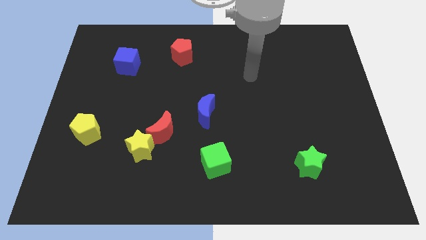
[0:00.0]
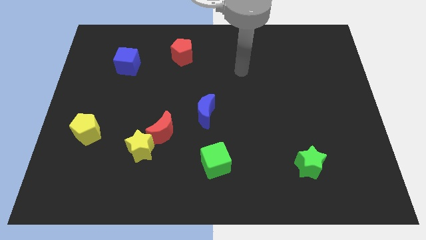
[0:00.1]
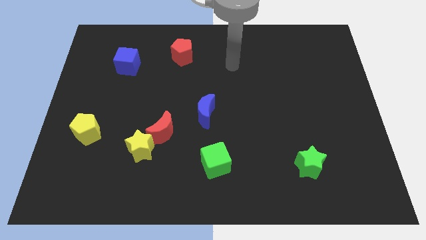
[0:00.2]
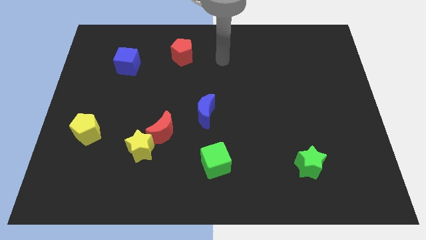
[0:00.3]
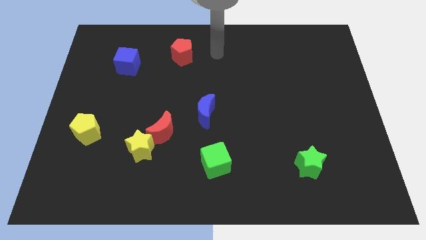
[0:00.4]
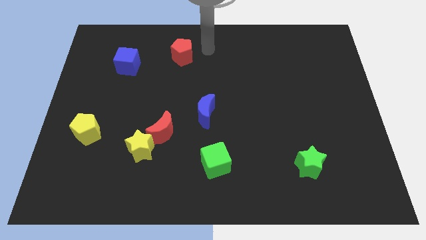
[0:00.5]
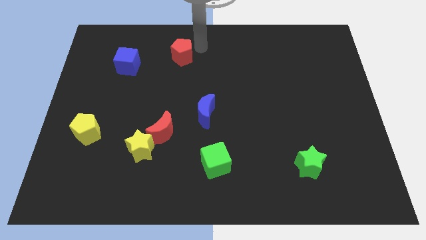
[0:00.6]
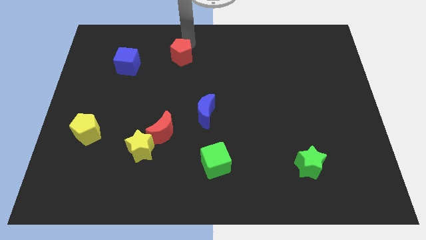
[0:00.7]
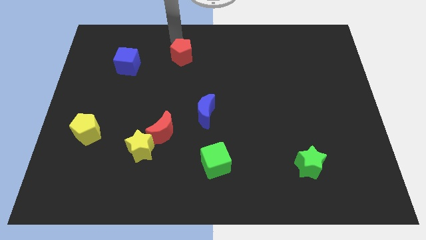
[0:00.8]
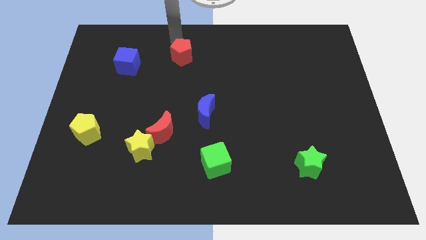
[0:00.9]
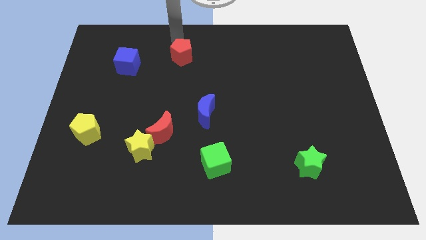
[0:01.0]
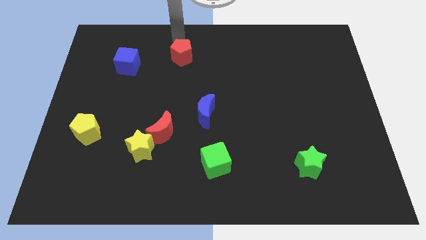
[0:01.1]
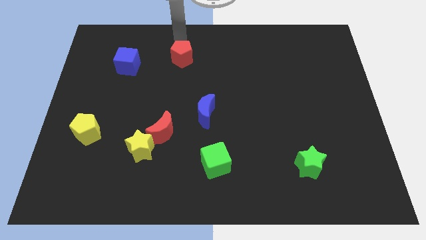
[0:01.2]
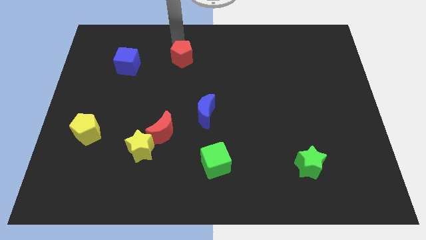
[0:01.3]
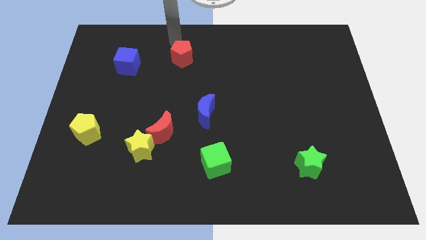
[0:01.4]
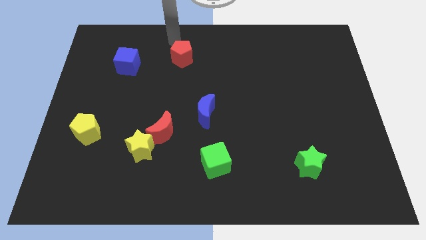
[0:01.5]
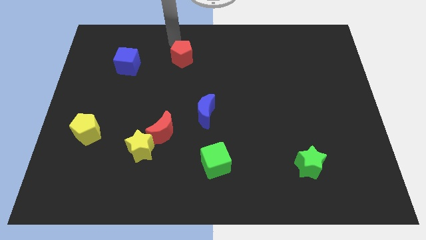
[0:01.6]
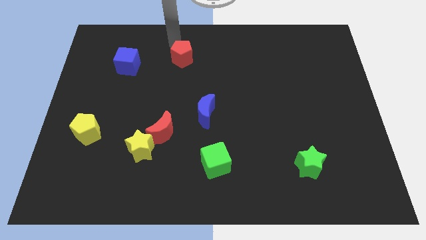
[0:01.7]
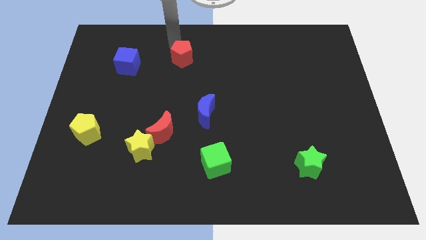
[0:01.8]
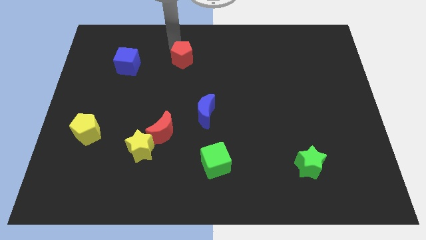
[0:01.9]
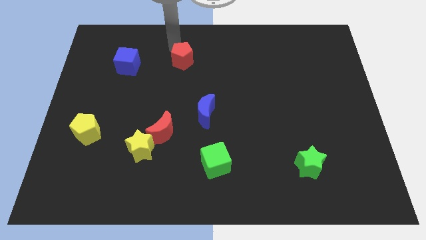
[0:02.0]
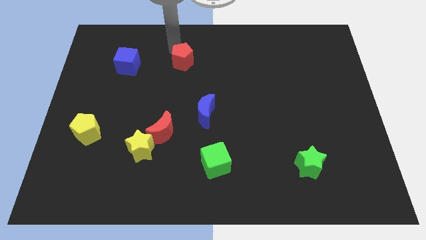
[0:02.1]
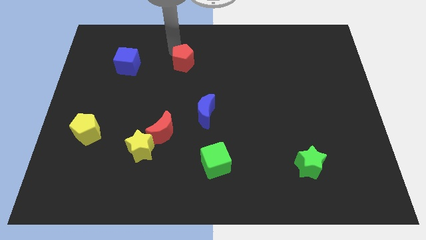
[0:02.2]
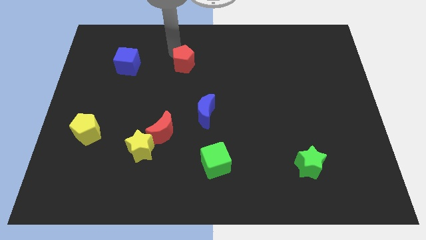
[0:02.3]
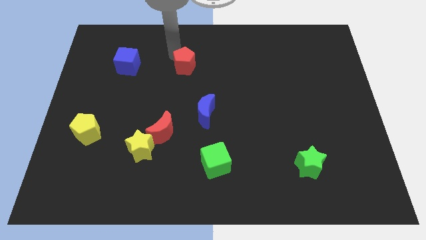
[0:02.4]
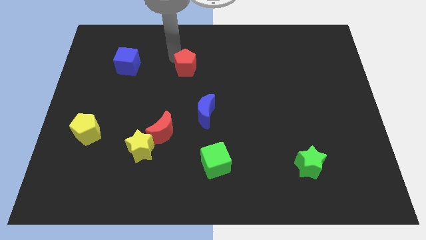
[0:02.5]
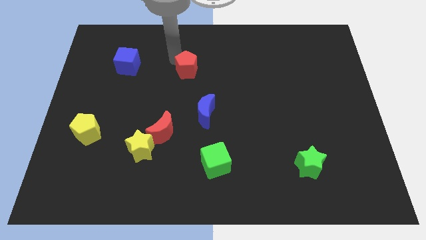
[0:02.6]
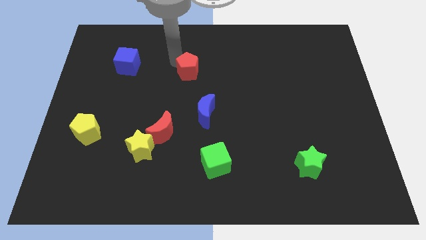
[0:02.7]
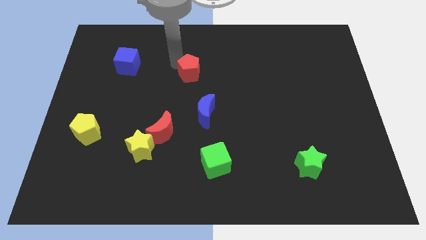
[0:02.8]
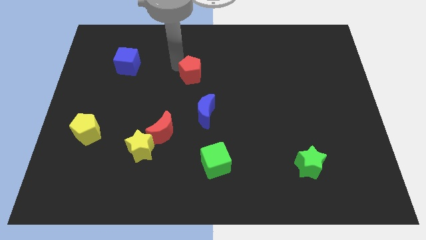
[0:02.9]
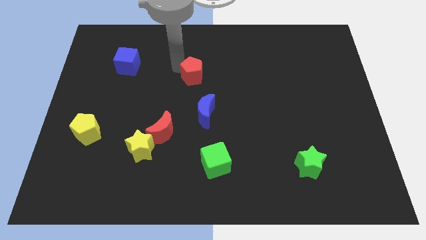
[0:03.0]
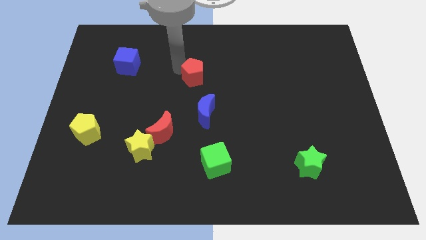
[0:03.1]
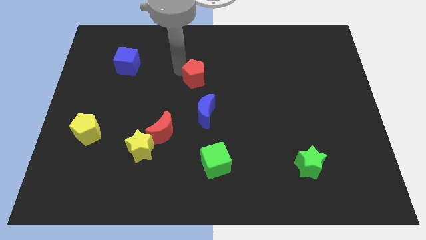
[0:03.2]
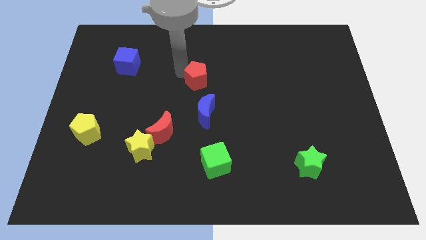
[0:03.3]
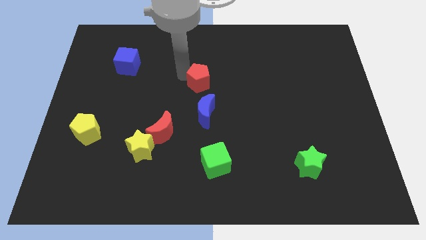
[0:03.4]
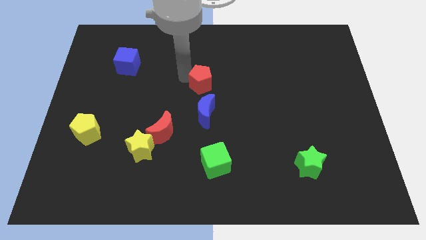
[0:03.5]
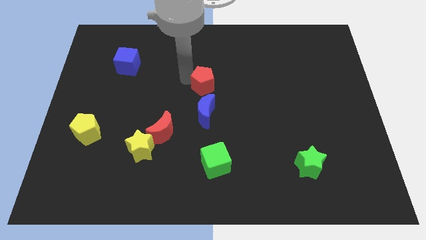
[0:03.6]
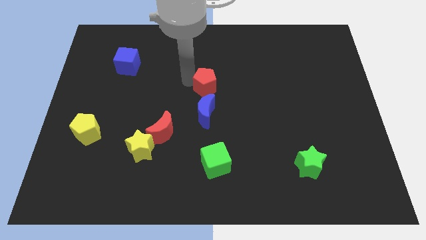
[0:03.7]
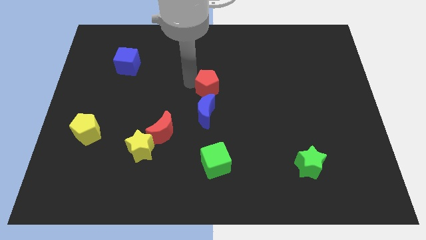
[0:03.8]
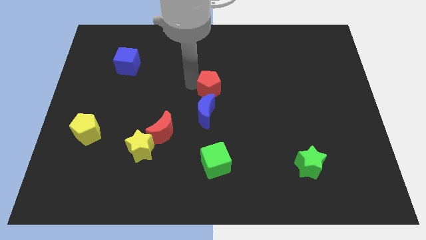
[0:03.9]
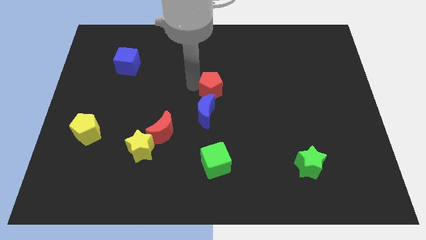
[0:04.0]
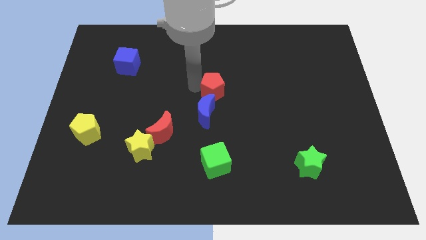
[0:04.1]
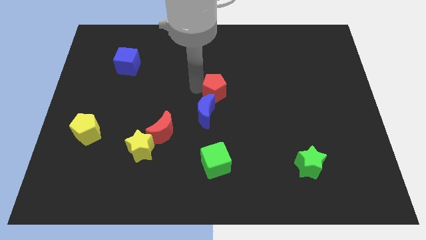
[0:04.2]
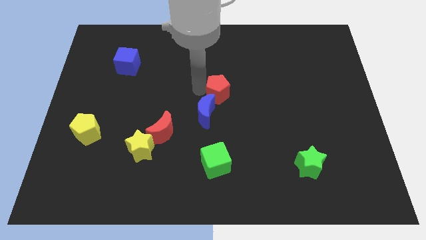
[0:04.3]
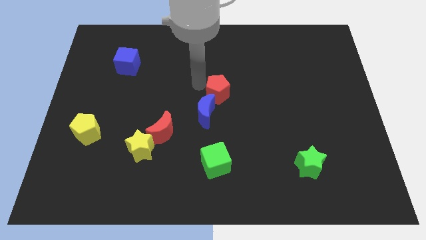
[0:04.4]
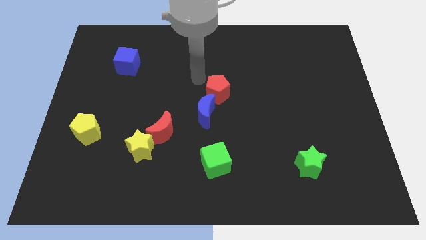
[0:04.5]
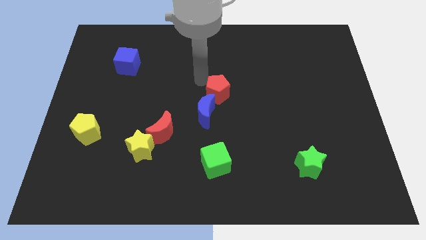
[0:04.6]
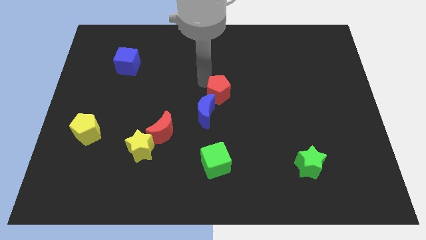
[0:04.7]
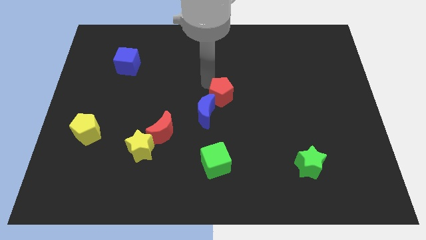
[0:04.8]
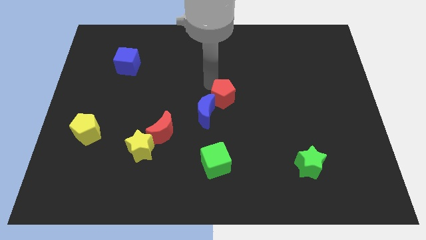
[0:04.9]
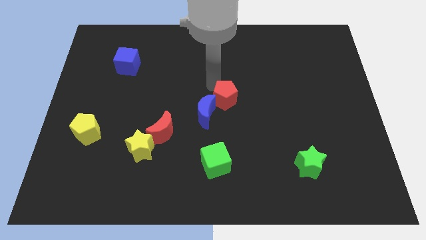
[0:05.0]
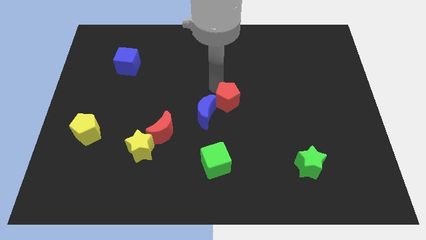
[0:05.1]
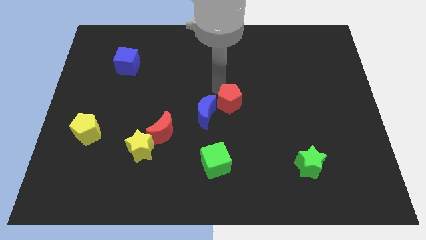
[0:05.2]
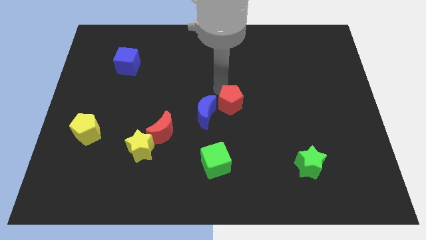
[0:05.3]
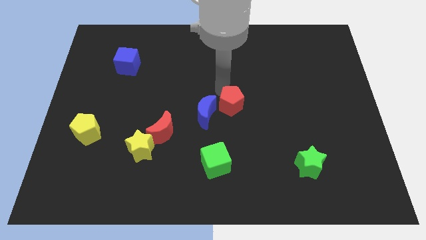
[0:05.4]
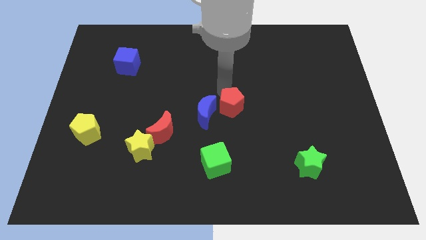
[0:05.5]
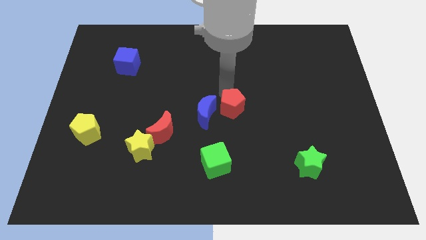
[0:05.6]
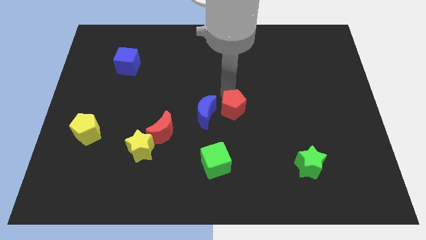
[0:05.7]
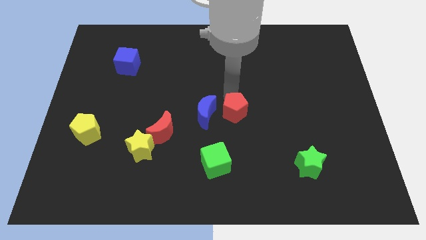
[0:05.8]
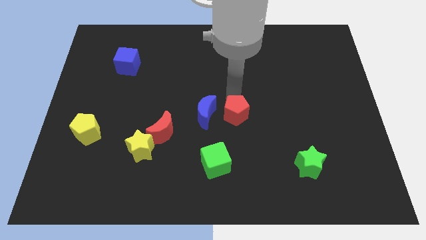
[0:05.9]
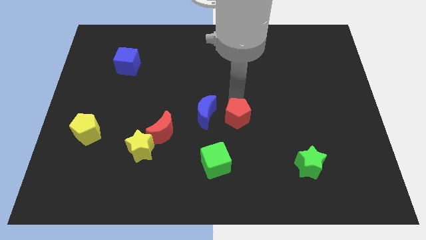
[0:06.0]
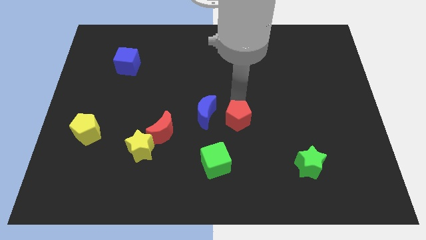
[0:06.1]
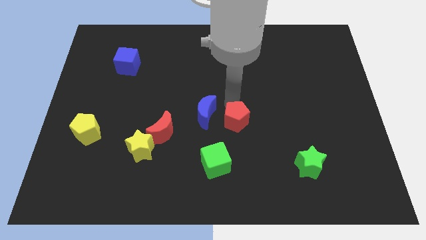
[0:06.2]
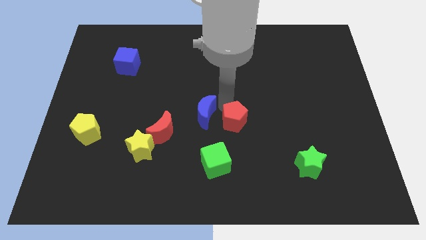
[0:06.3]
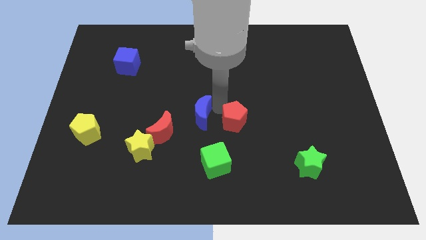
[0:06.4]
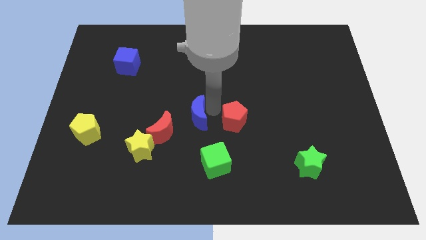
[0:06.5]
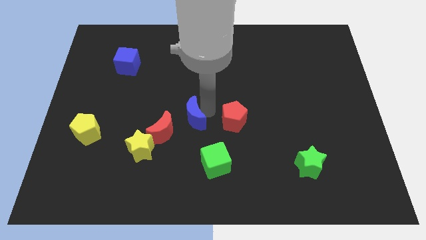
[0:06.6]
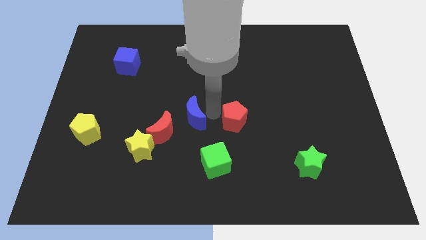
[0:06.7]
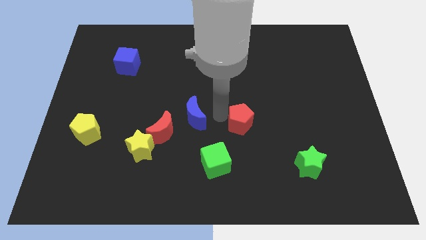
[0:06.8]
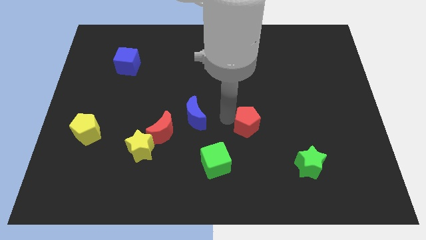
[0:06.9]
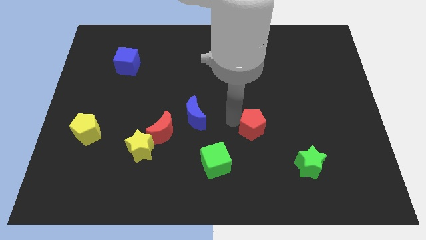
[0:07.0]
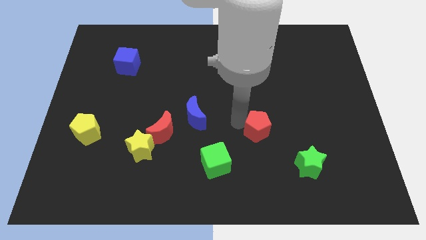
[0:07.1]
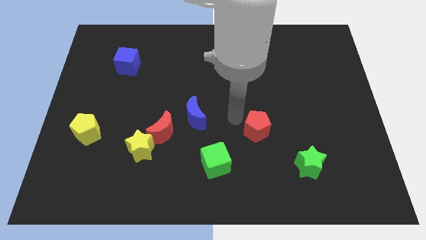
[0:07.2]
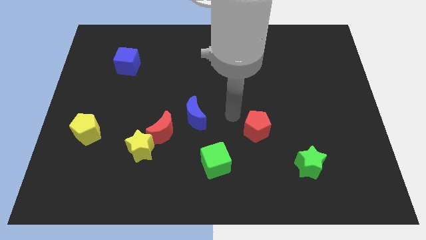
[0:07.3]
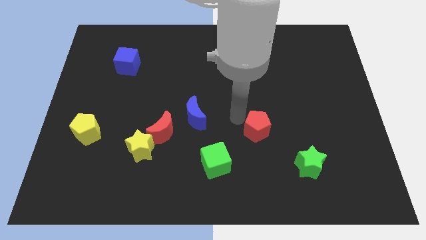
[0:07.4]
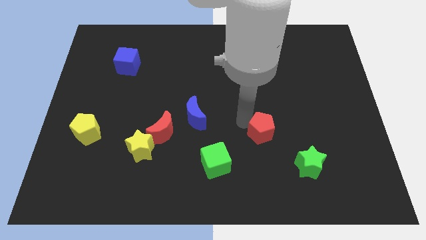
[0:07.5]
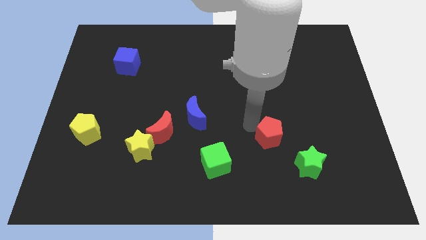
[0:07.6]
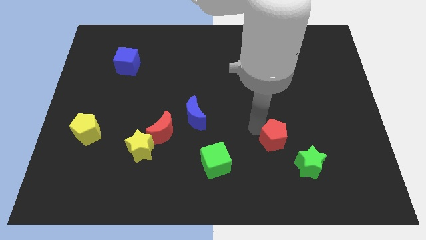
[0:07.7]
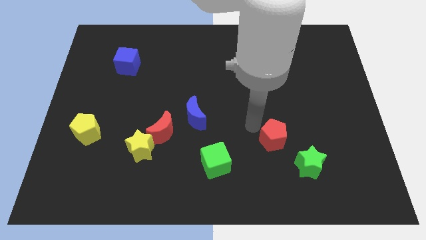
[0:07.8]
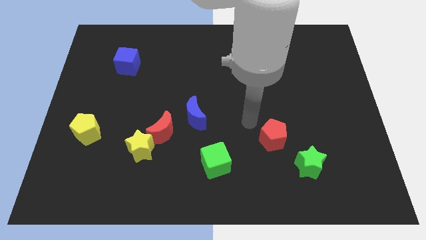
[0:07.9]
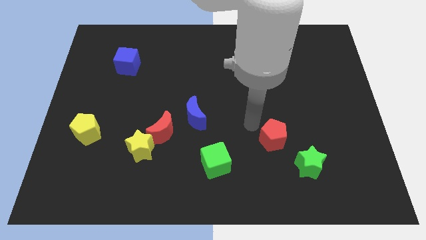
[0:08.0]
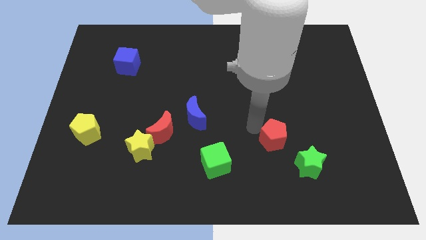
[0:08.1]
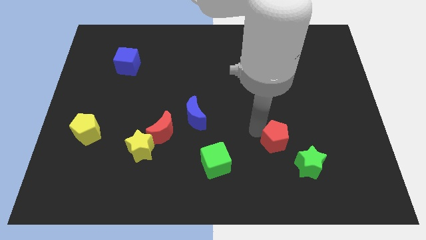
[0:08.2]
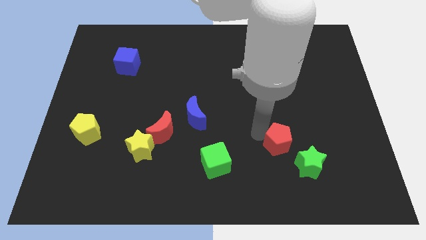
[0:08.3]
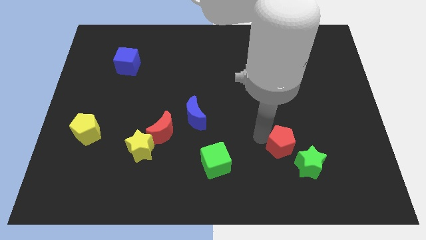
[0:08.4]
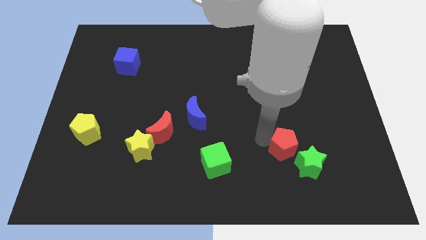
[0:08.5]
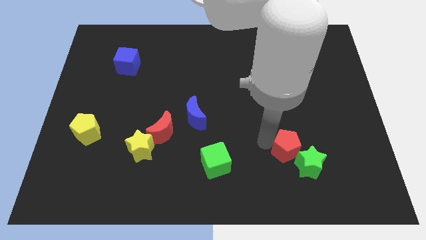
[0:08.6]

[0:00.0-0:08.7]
move the red pentagon towards the green star
